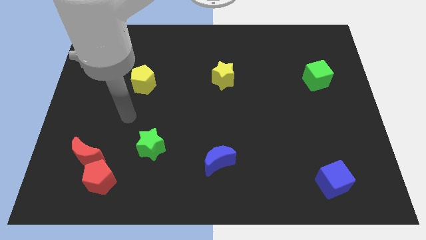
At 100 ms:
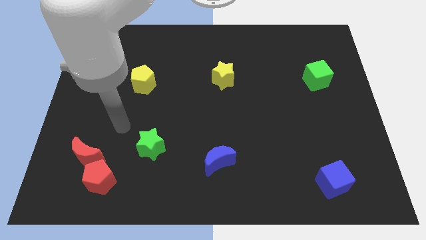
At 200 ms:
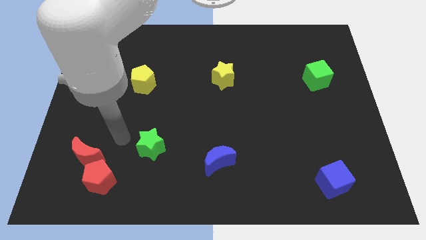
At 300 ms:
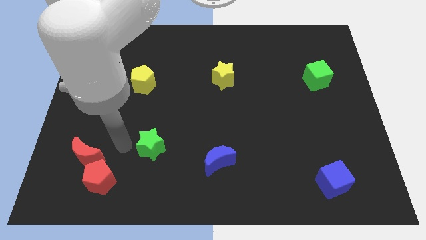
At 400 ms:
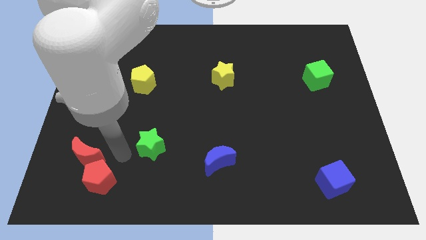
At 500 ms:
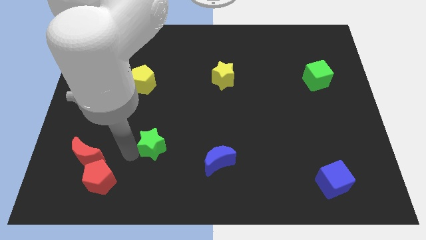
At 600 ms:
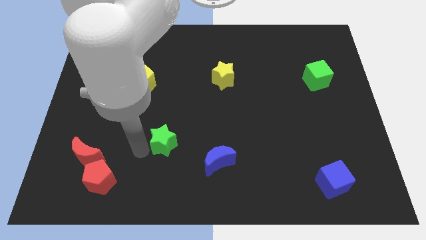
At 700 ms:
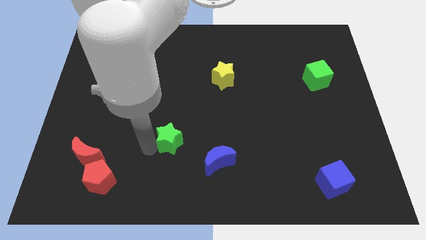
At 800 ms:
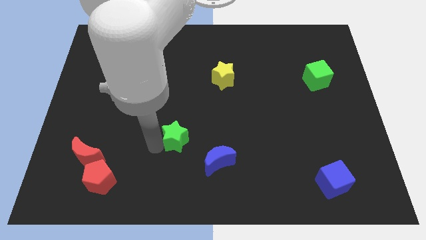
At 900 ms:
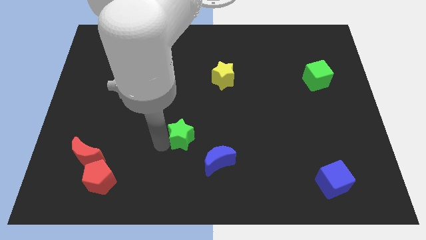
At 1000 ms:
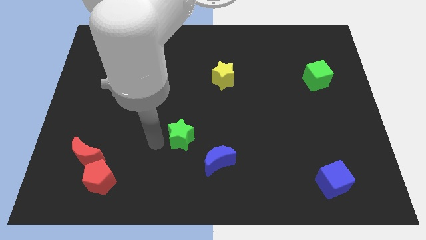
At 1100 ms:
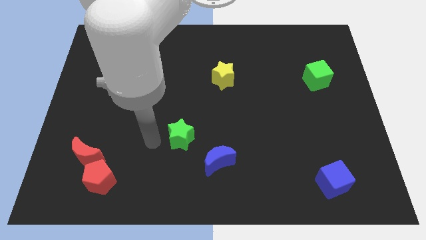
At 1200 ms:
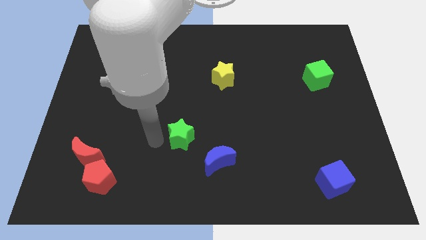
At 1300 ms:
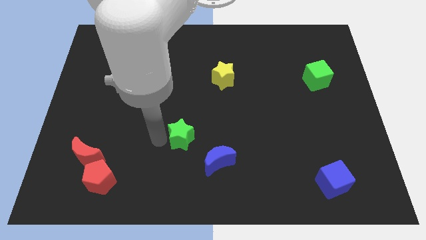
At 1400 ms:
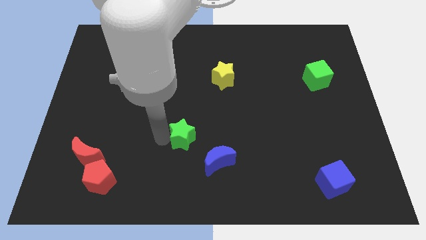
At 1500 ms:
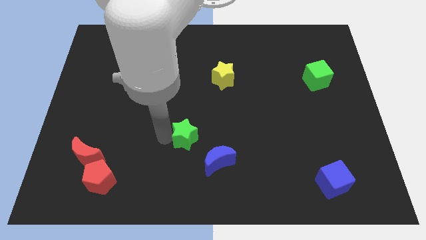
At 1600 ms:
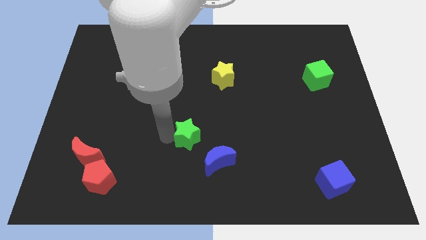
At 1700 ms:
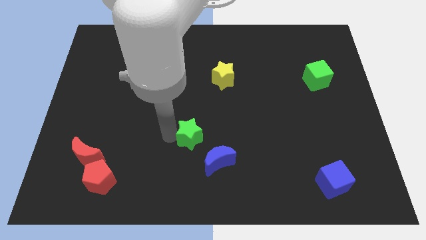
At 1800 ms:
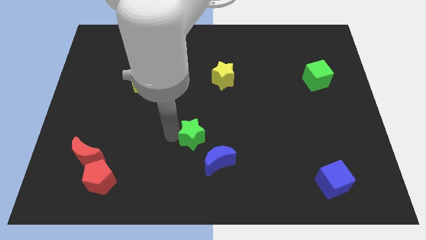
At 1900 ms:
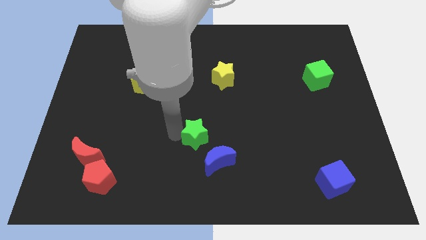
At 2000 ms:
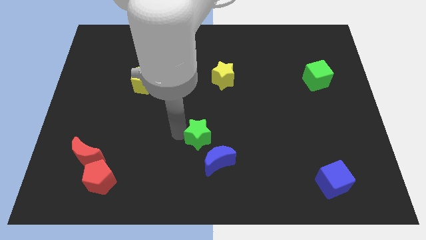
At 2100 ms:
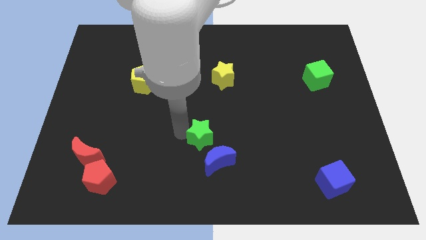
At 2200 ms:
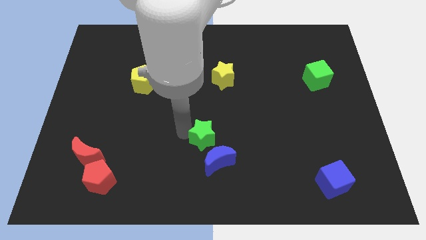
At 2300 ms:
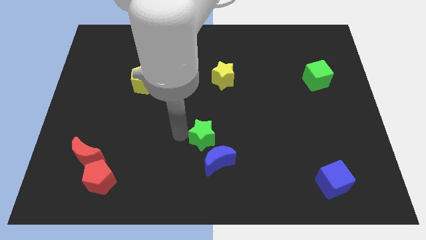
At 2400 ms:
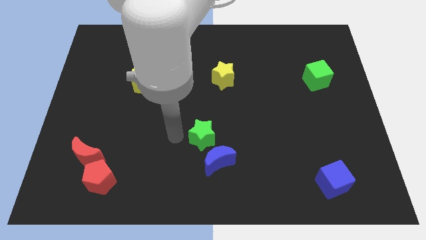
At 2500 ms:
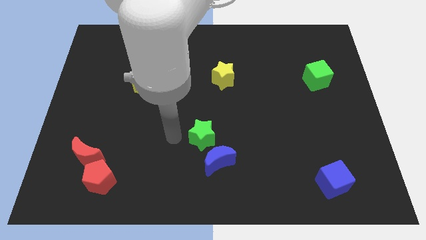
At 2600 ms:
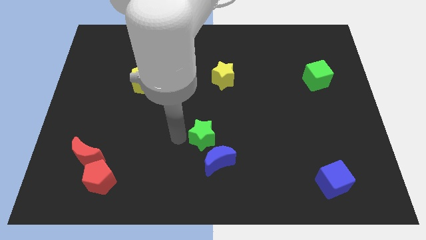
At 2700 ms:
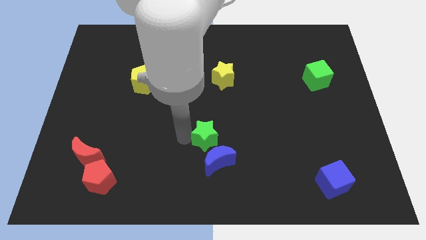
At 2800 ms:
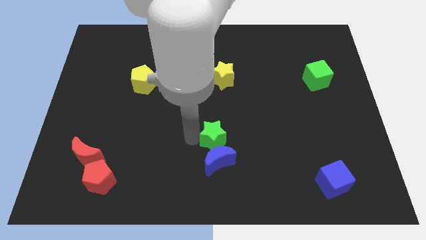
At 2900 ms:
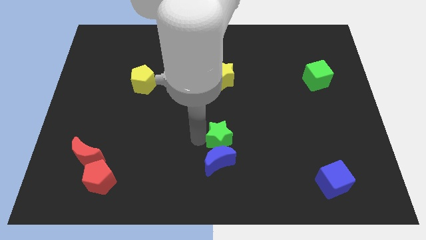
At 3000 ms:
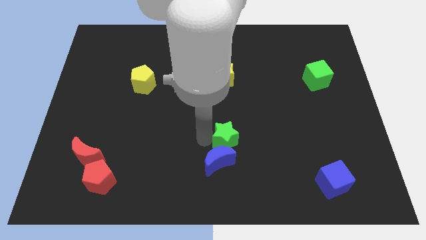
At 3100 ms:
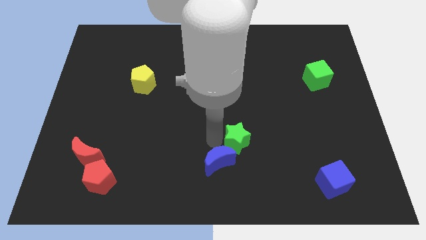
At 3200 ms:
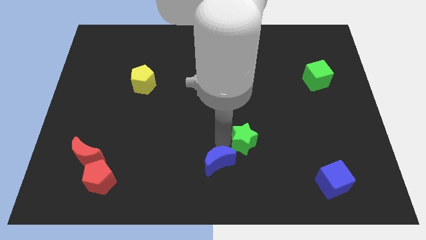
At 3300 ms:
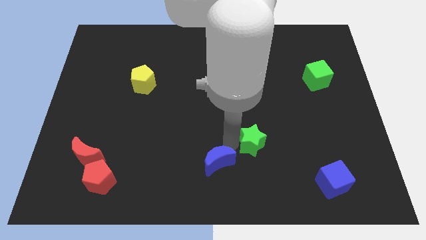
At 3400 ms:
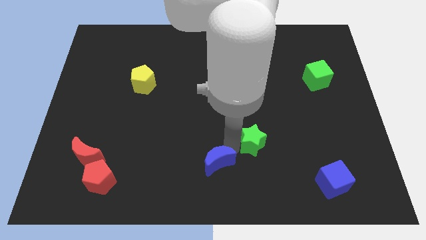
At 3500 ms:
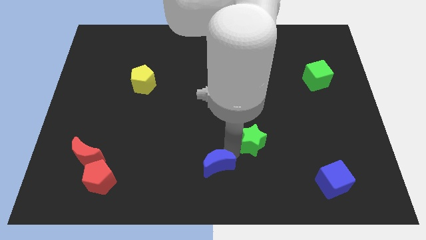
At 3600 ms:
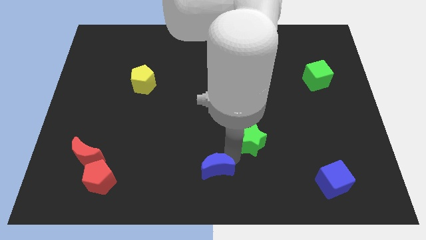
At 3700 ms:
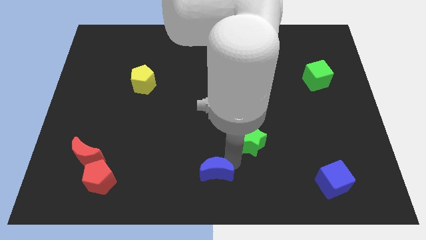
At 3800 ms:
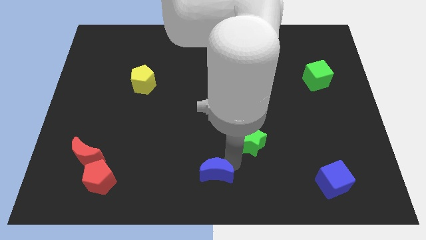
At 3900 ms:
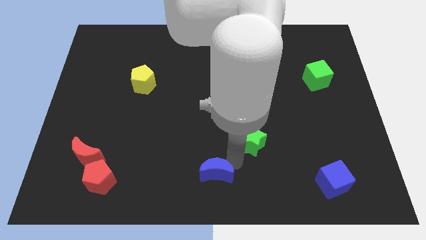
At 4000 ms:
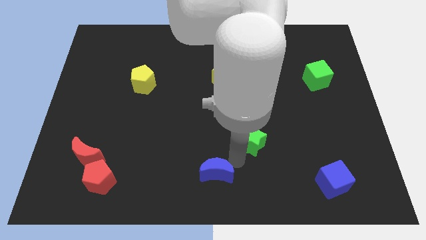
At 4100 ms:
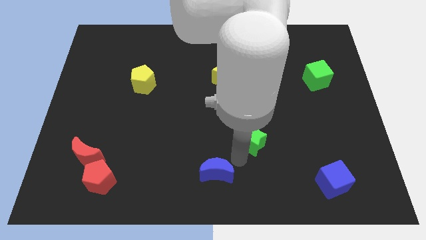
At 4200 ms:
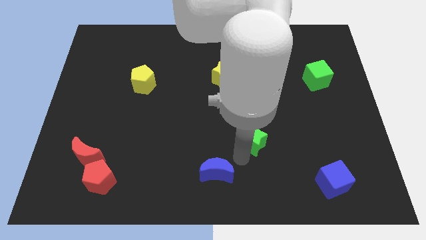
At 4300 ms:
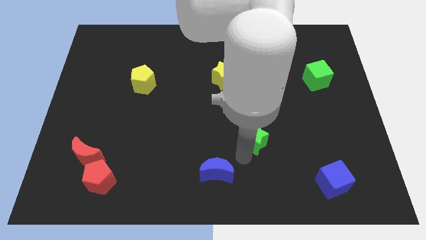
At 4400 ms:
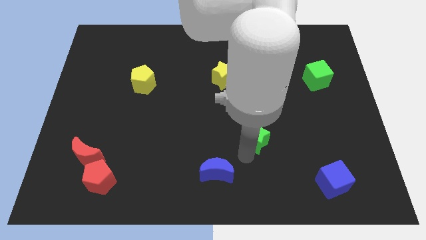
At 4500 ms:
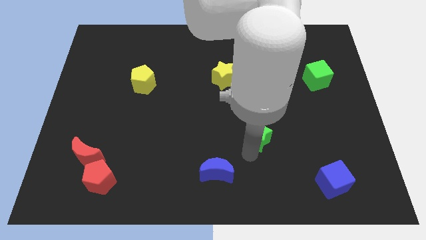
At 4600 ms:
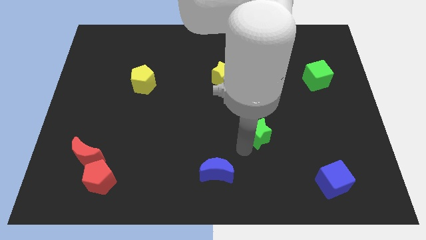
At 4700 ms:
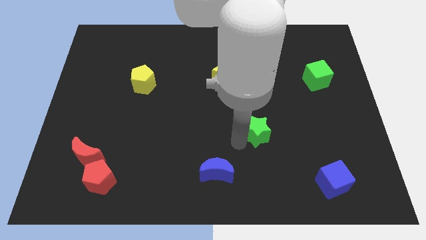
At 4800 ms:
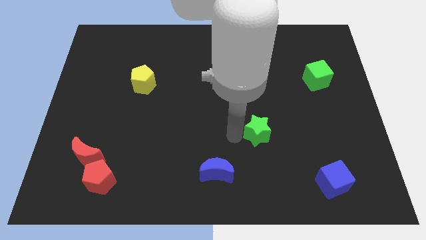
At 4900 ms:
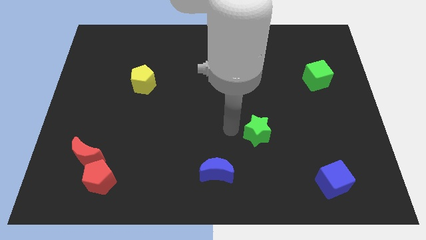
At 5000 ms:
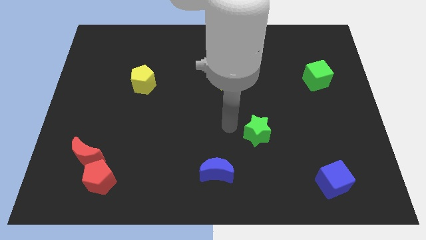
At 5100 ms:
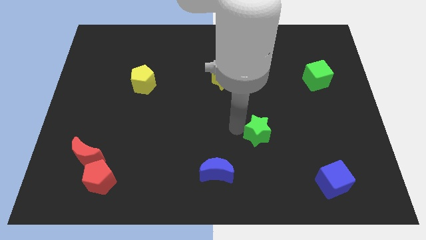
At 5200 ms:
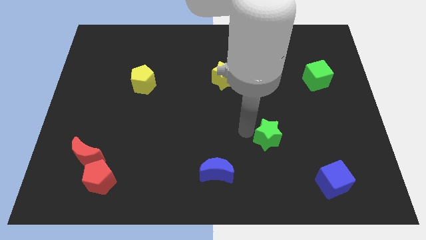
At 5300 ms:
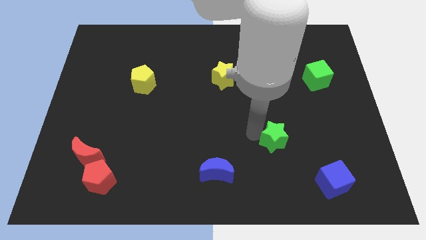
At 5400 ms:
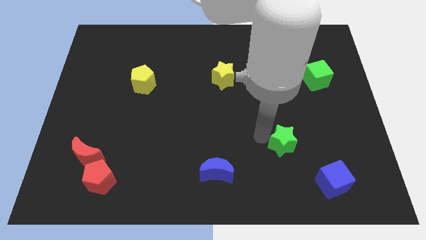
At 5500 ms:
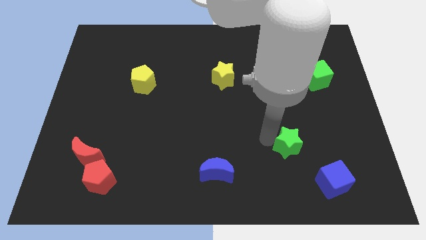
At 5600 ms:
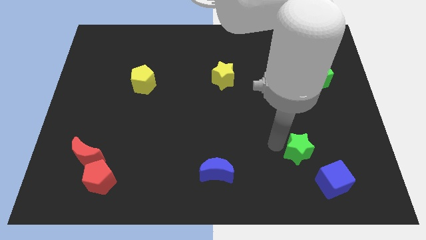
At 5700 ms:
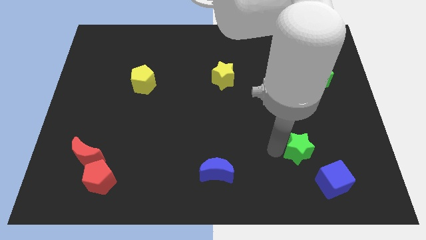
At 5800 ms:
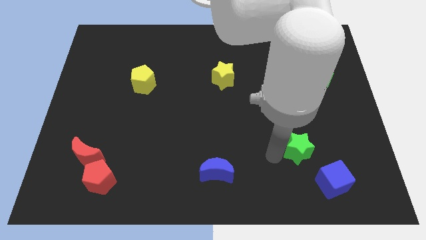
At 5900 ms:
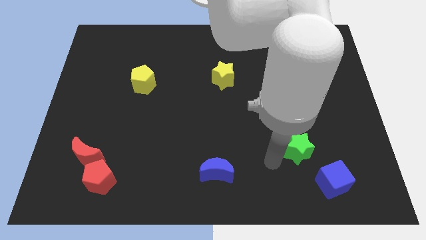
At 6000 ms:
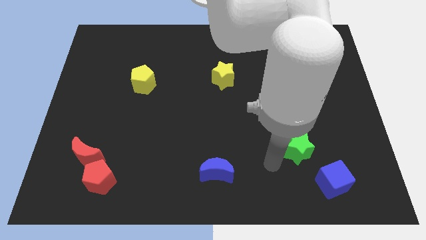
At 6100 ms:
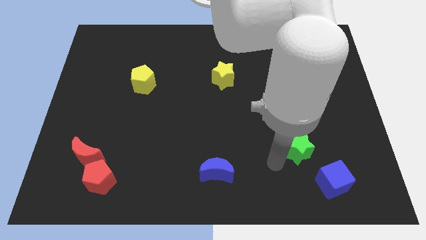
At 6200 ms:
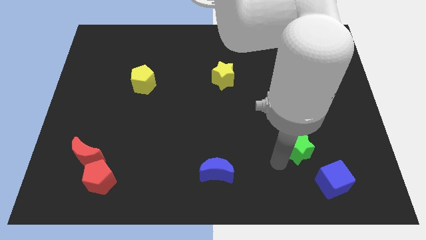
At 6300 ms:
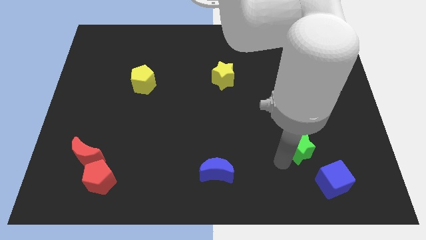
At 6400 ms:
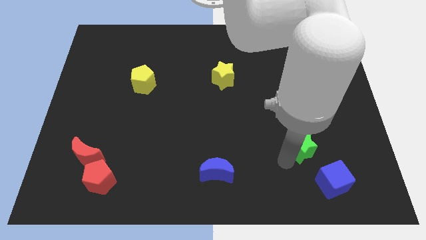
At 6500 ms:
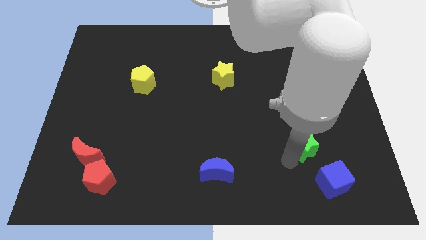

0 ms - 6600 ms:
put the green star to the top side of the blue cube

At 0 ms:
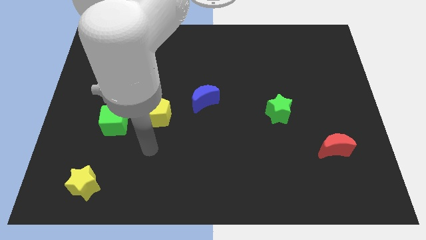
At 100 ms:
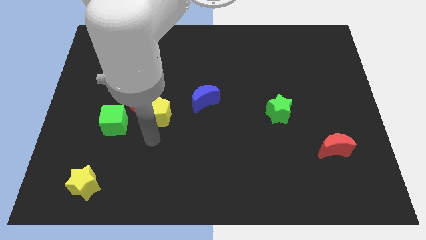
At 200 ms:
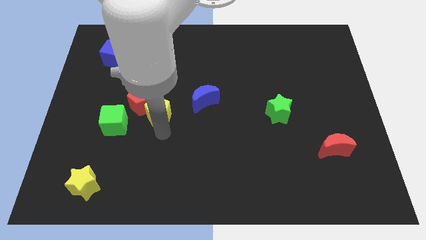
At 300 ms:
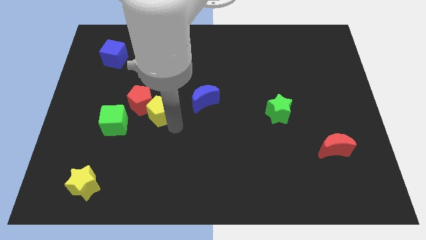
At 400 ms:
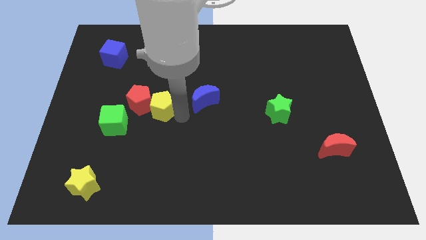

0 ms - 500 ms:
push the red pentagon to the bottom left side of the yellow pentagon
